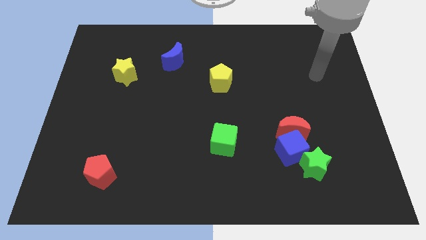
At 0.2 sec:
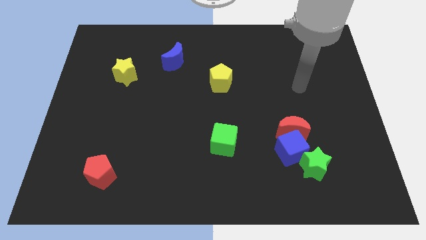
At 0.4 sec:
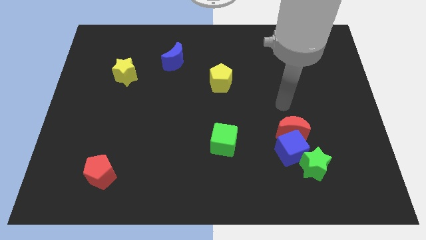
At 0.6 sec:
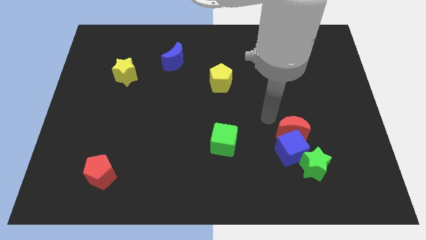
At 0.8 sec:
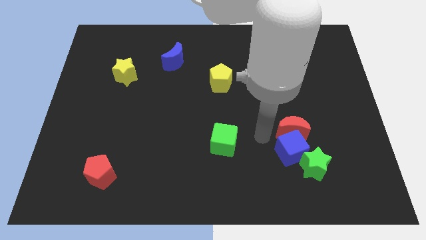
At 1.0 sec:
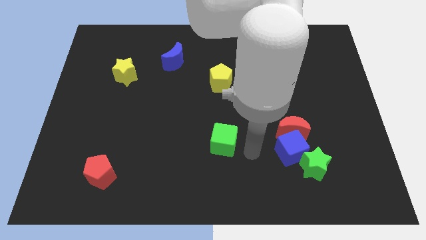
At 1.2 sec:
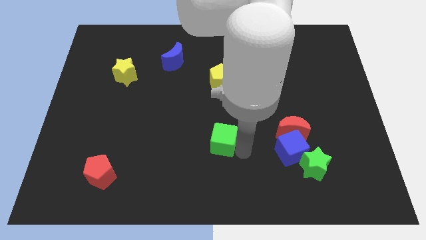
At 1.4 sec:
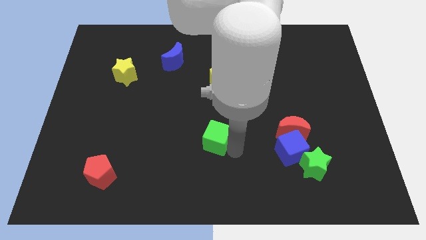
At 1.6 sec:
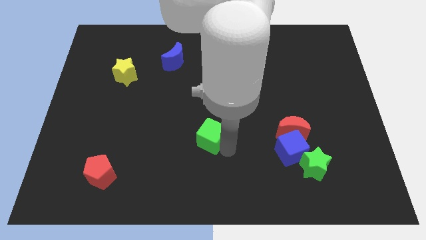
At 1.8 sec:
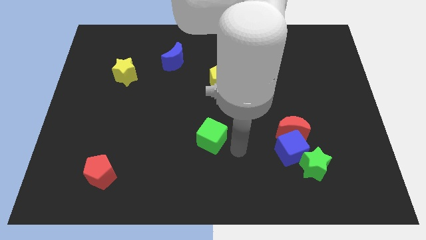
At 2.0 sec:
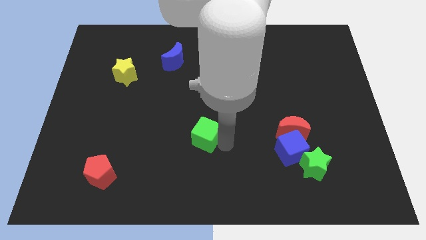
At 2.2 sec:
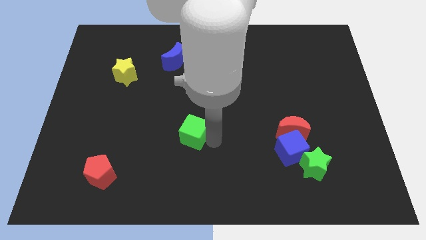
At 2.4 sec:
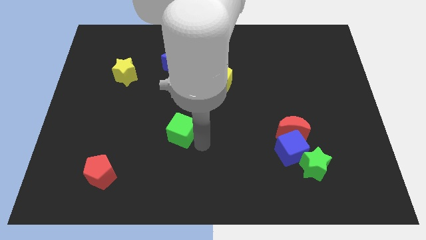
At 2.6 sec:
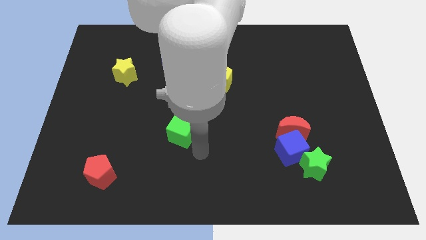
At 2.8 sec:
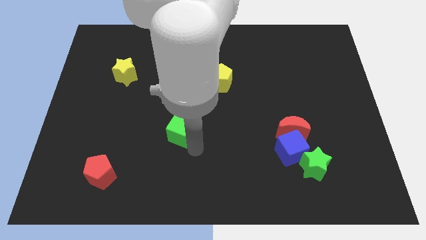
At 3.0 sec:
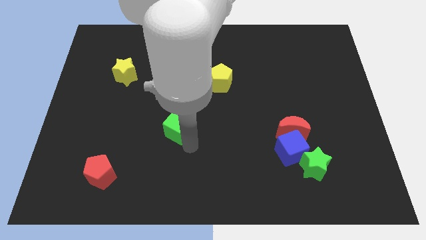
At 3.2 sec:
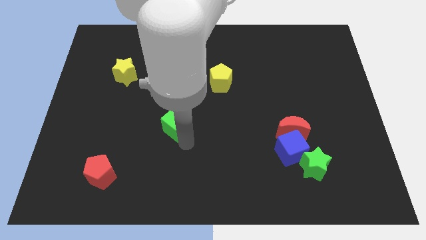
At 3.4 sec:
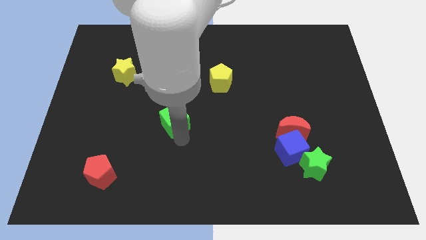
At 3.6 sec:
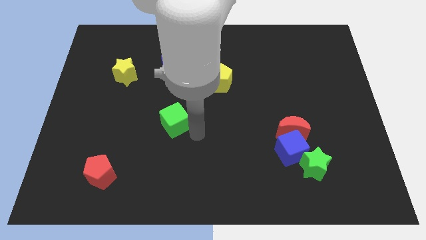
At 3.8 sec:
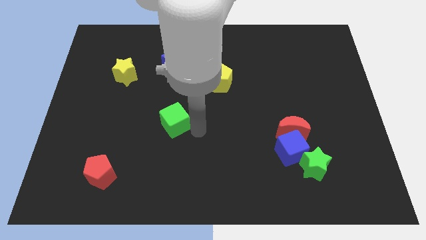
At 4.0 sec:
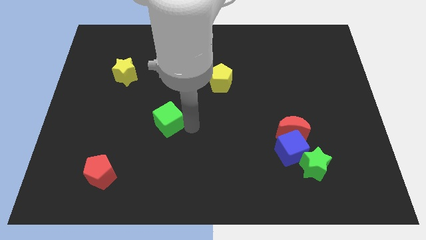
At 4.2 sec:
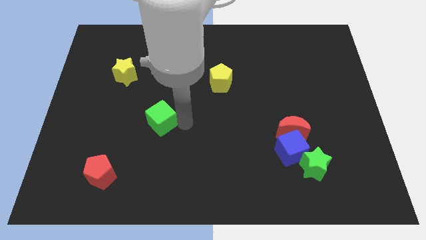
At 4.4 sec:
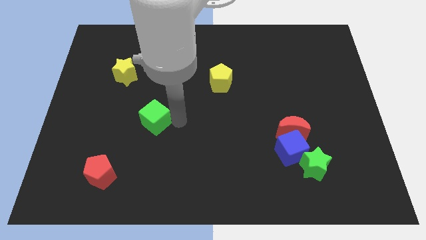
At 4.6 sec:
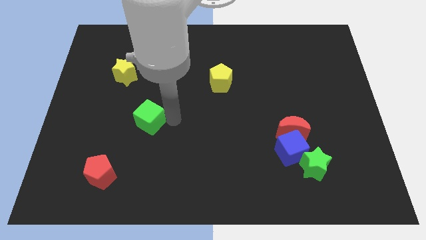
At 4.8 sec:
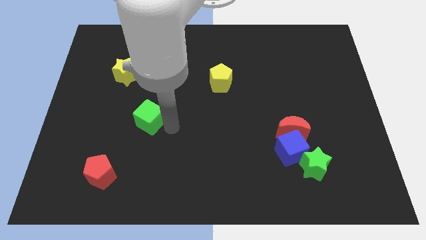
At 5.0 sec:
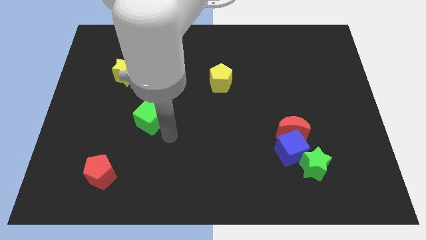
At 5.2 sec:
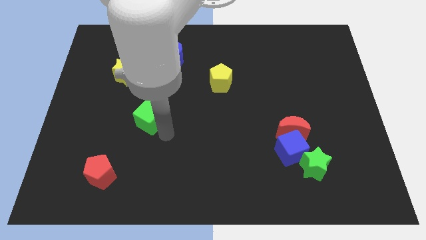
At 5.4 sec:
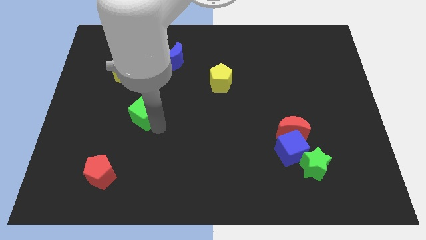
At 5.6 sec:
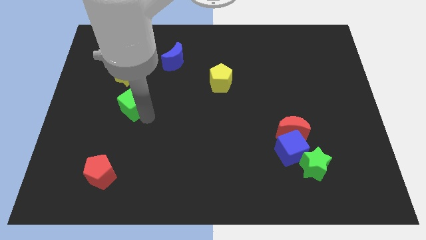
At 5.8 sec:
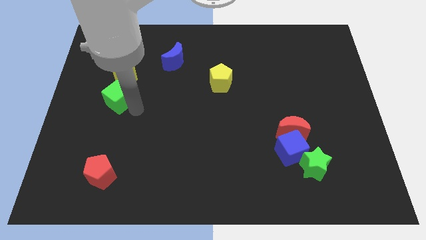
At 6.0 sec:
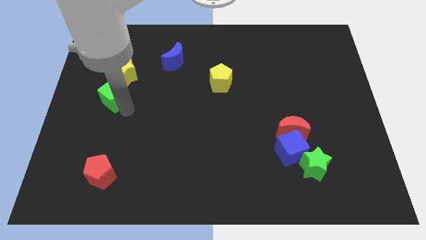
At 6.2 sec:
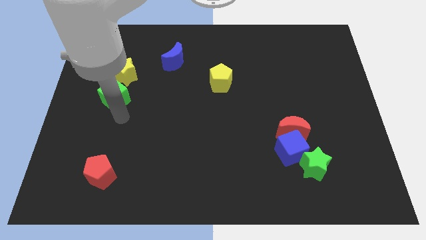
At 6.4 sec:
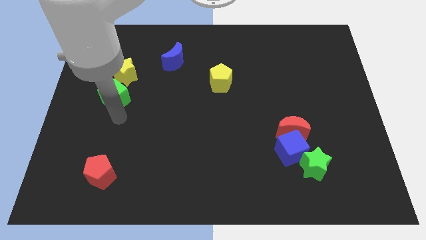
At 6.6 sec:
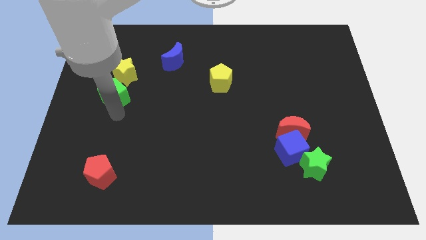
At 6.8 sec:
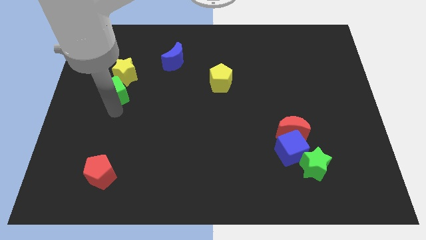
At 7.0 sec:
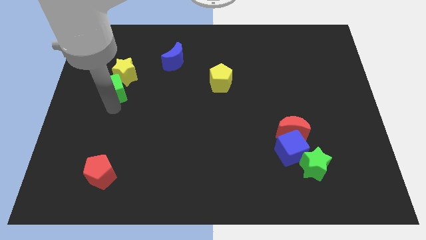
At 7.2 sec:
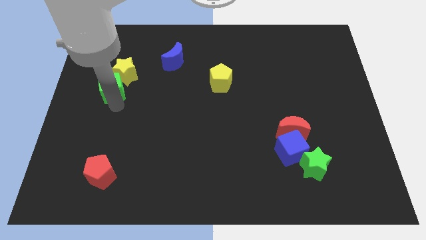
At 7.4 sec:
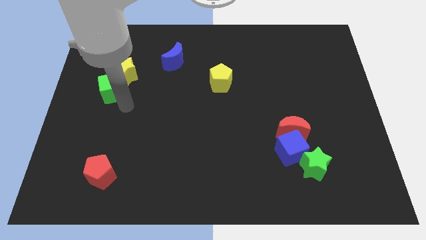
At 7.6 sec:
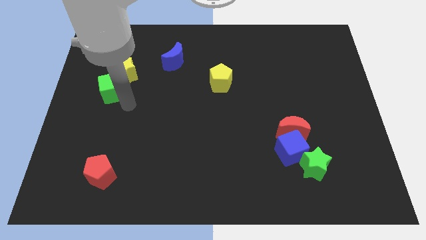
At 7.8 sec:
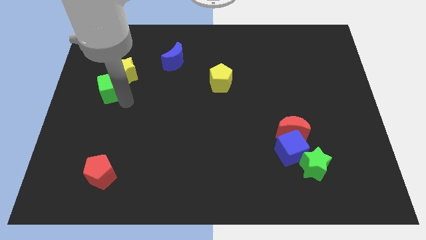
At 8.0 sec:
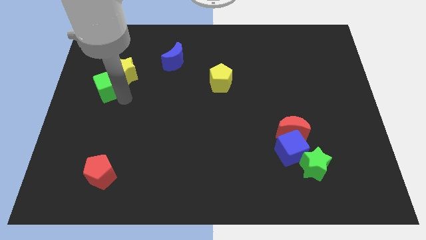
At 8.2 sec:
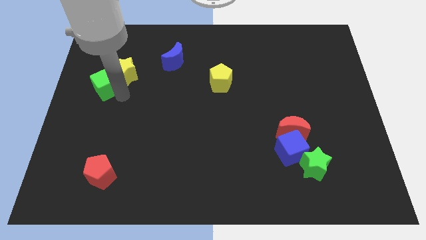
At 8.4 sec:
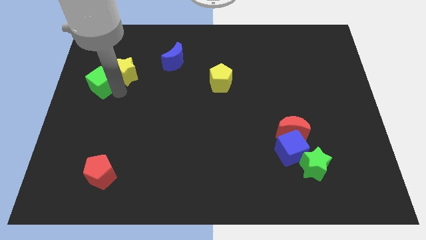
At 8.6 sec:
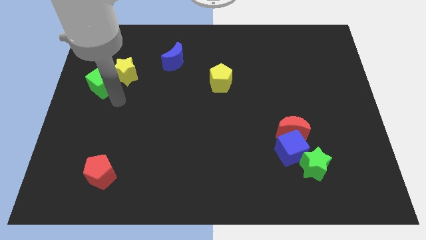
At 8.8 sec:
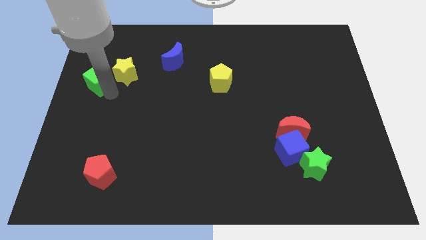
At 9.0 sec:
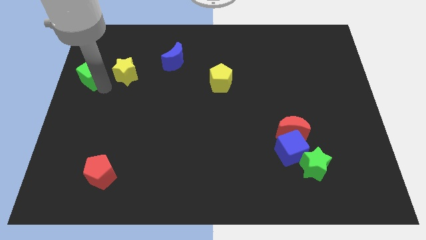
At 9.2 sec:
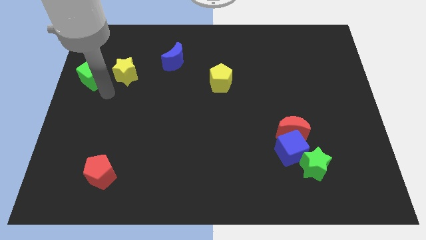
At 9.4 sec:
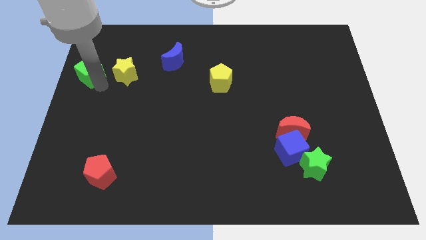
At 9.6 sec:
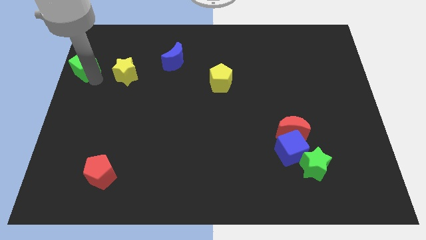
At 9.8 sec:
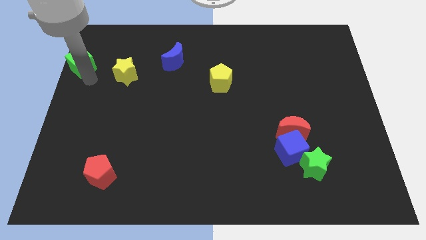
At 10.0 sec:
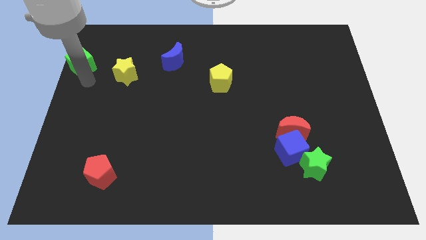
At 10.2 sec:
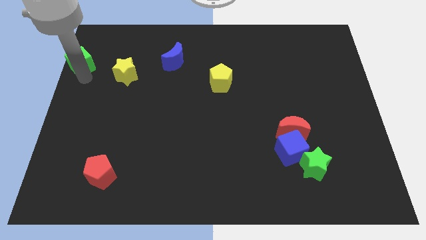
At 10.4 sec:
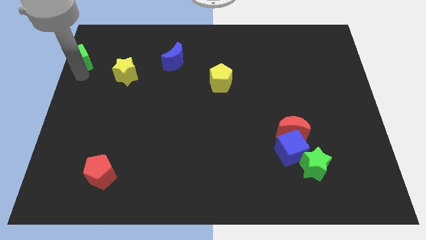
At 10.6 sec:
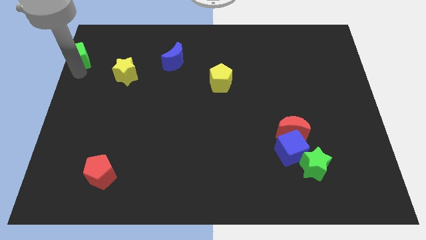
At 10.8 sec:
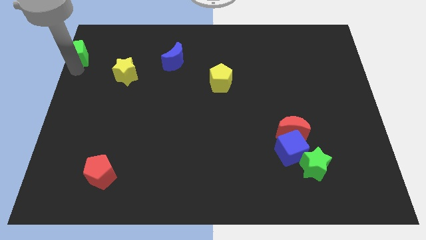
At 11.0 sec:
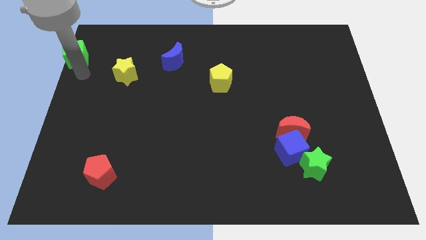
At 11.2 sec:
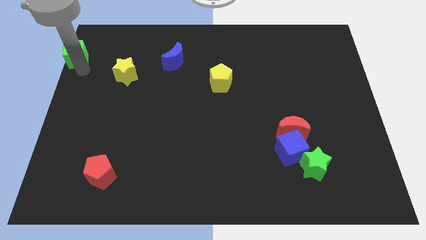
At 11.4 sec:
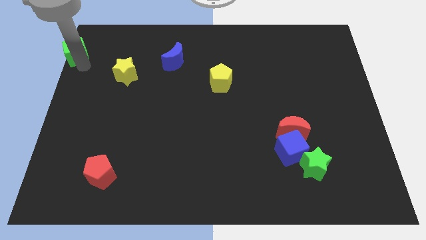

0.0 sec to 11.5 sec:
push the green cube to the top left corner
